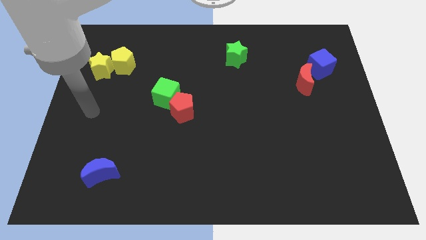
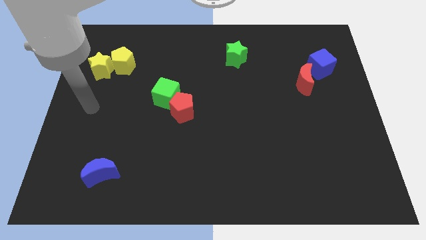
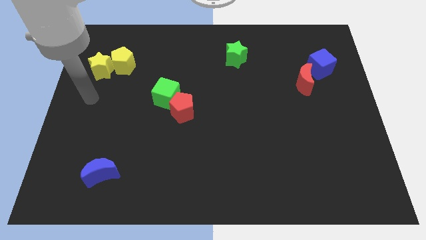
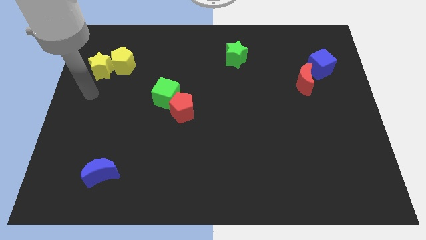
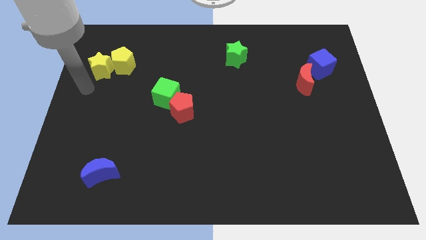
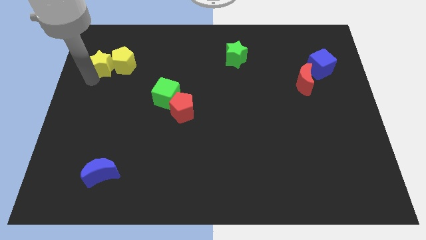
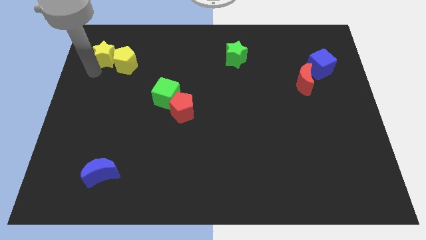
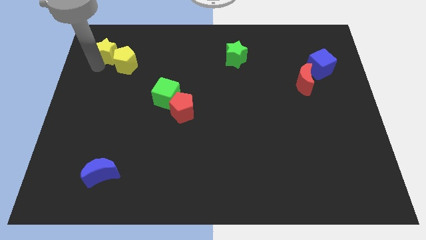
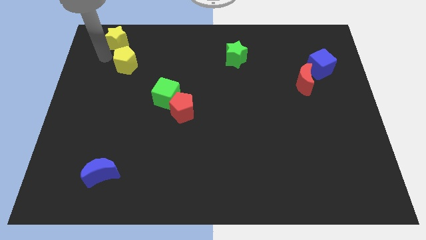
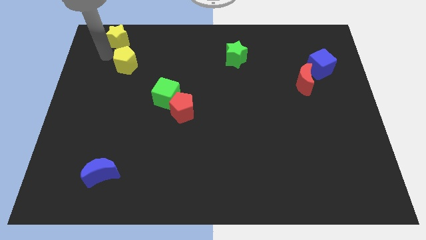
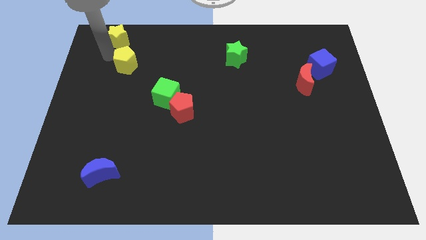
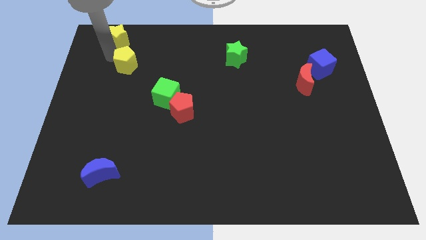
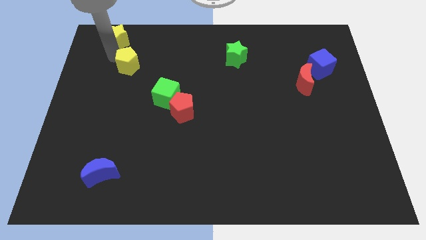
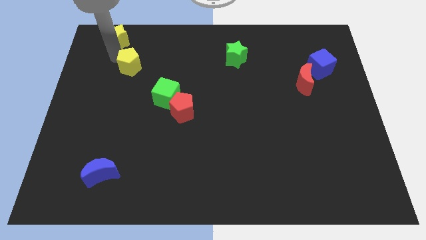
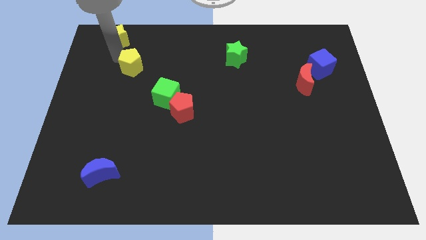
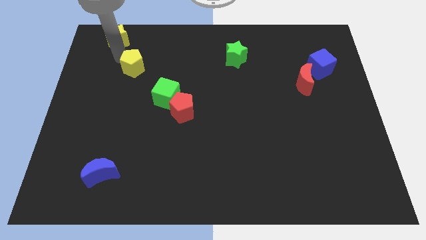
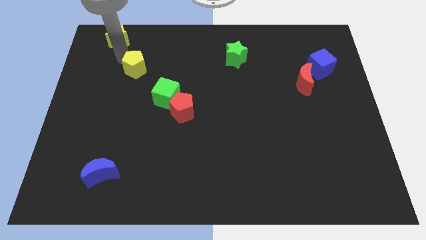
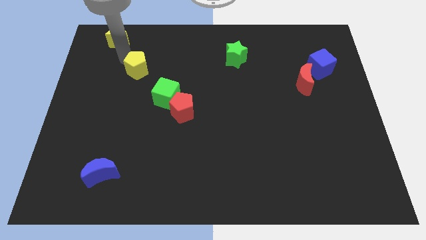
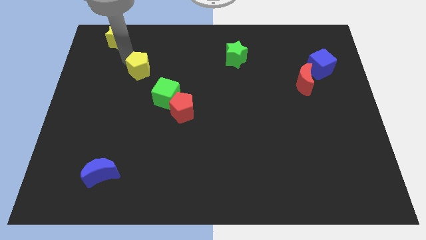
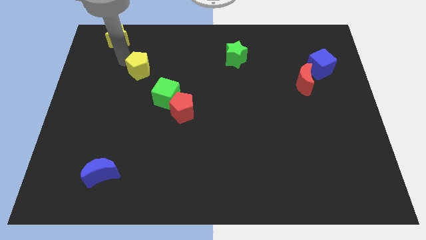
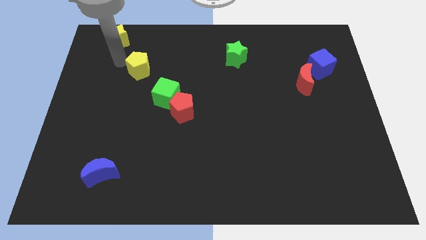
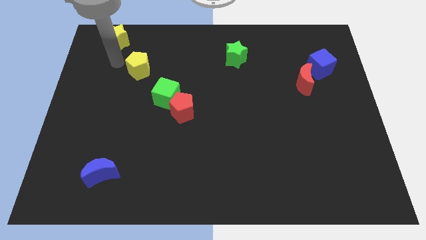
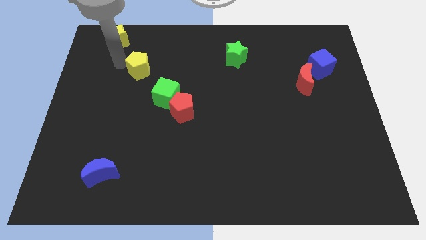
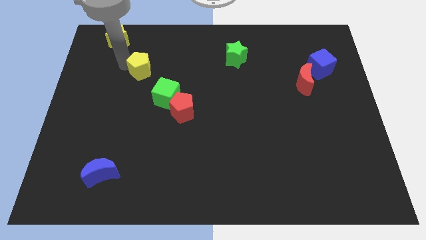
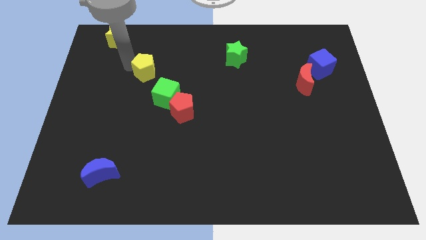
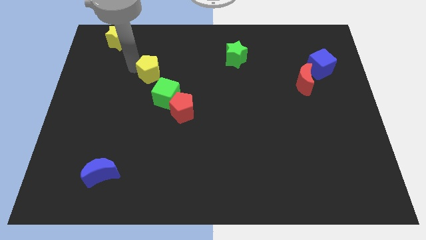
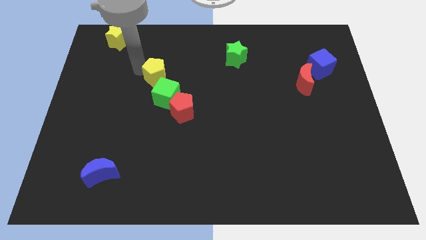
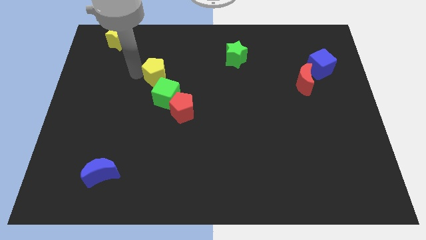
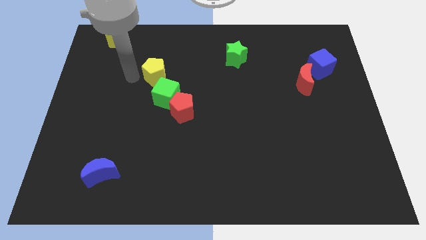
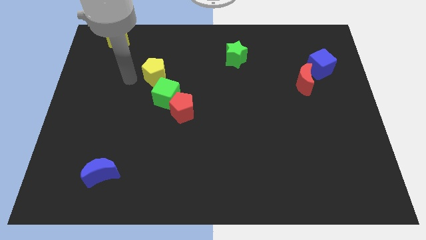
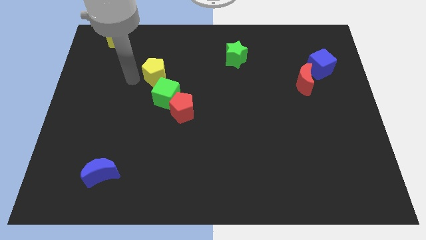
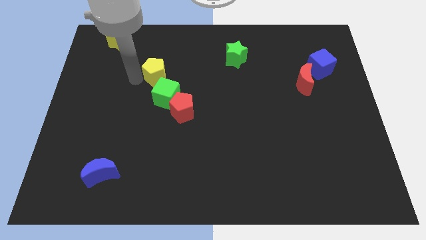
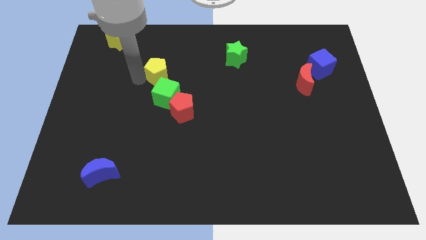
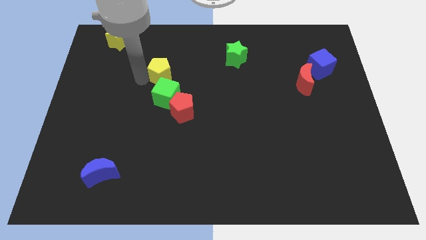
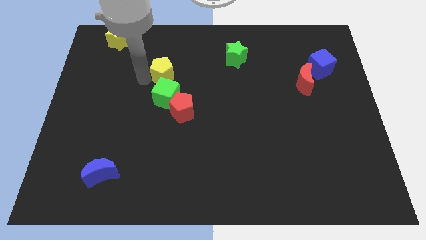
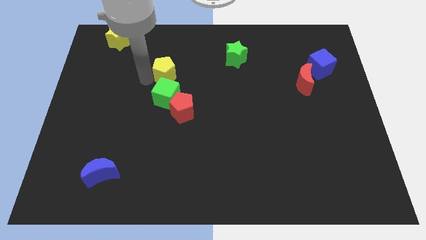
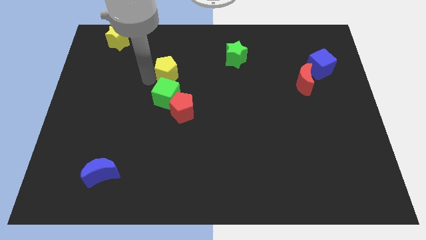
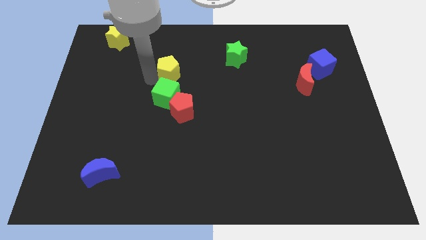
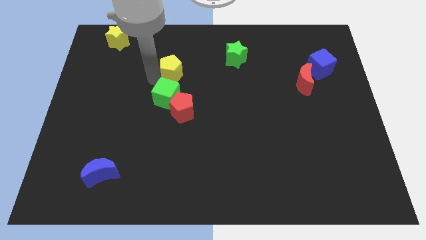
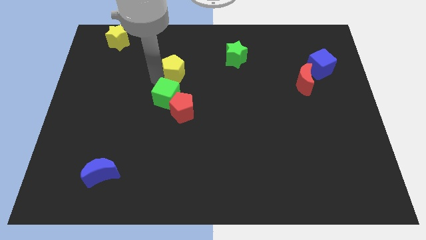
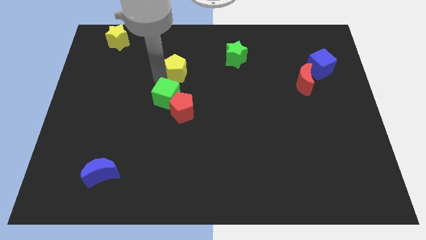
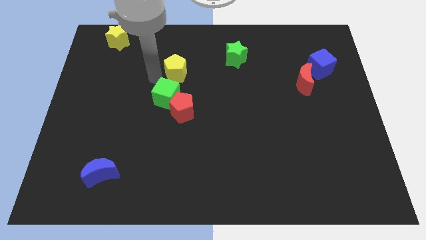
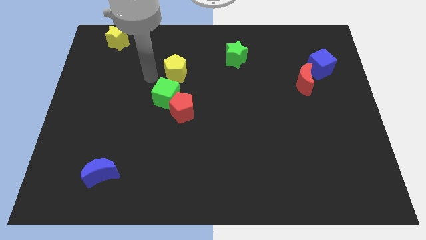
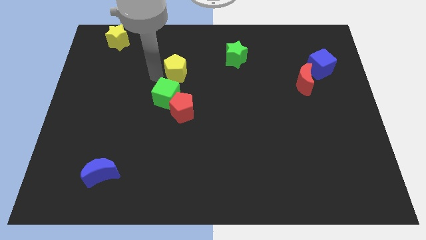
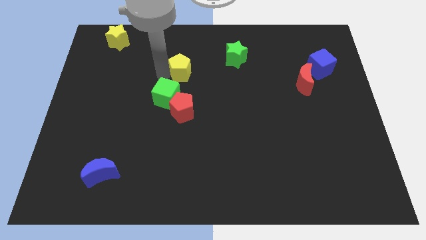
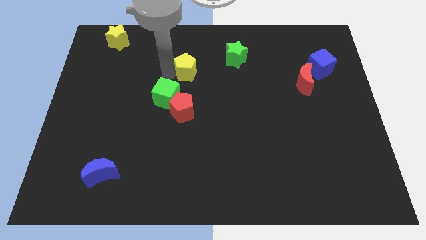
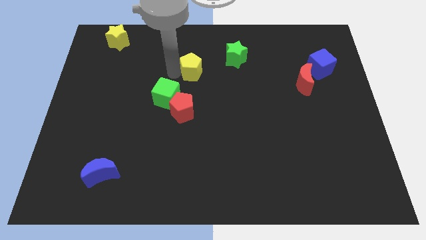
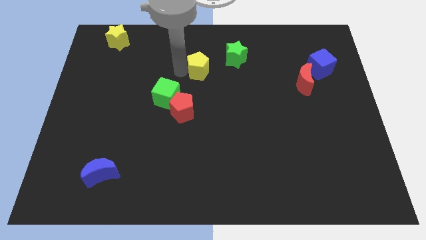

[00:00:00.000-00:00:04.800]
slide the yellow pentagon diagonally down and to the left of the green star

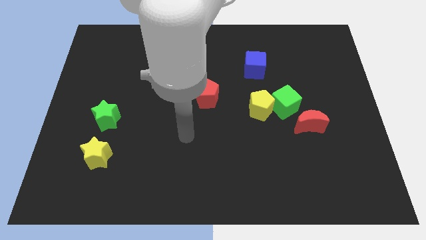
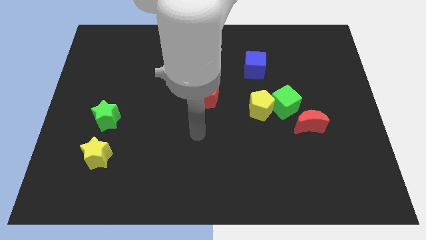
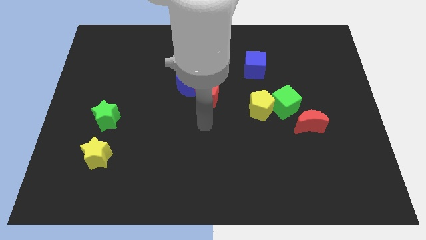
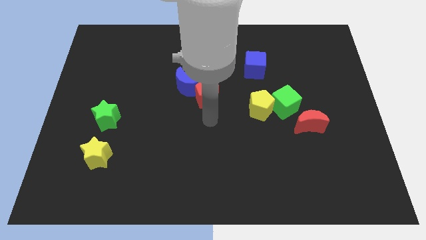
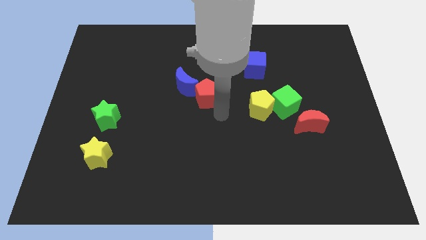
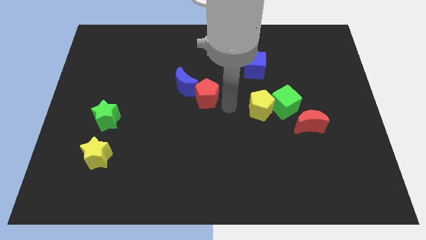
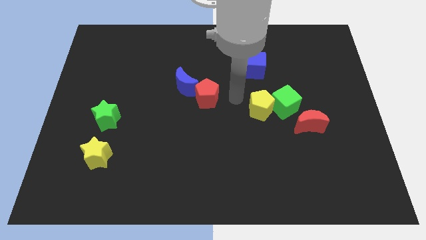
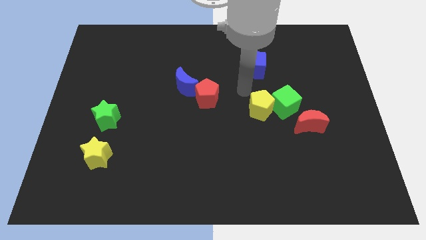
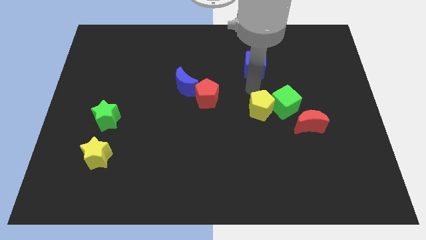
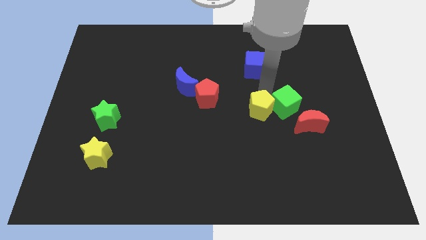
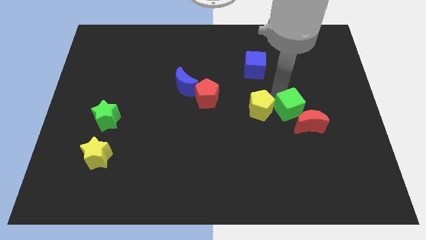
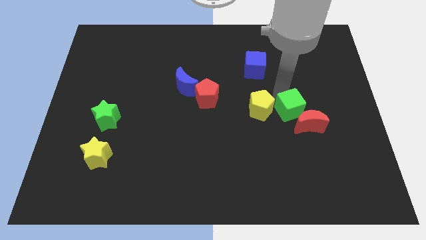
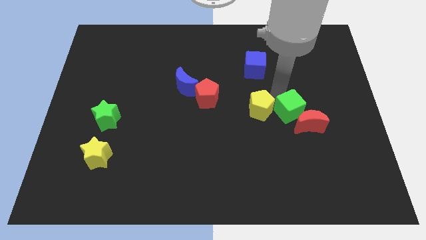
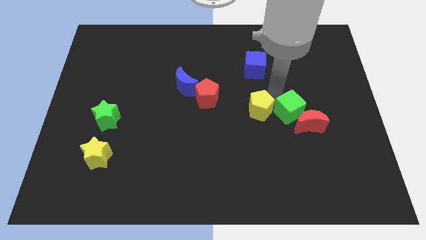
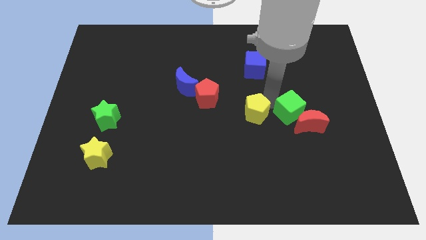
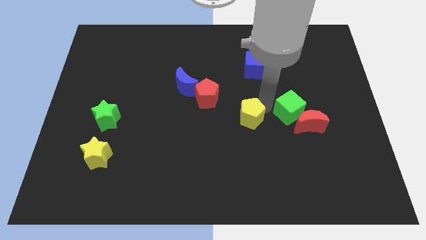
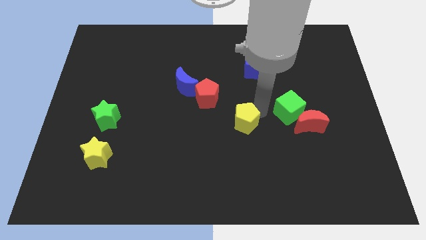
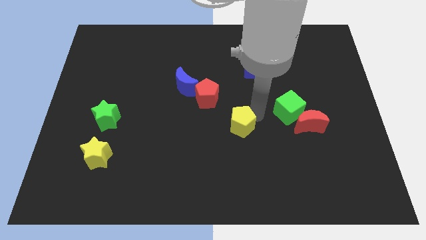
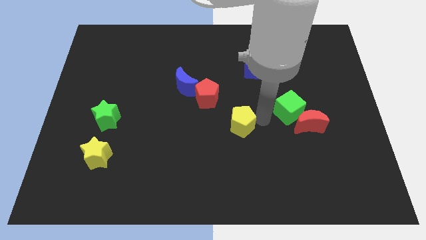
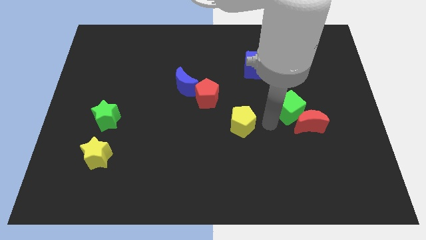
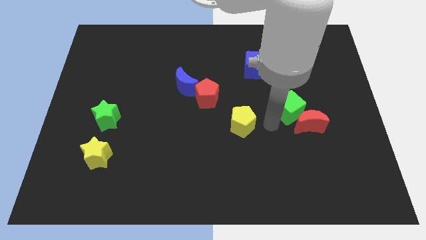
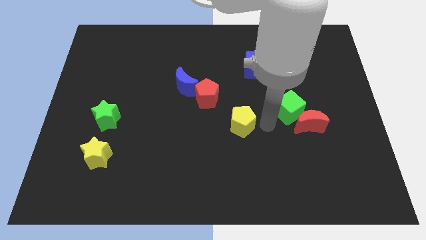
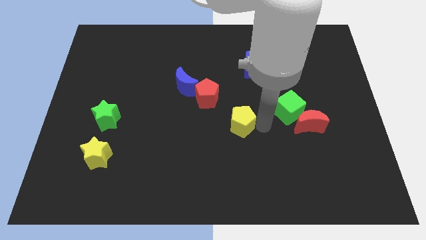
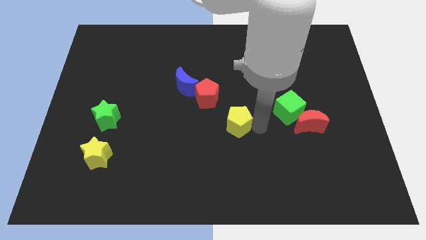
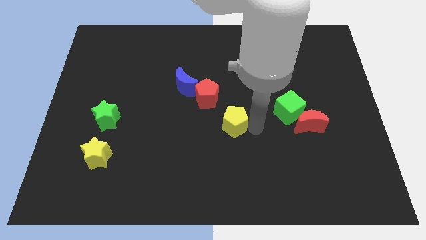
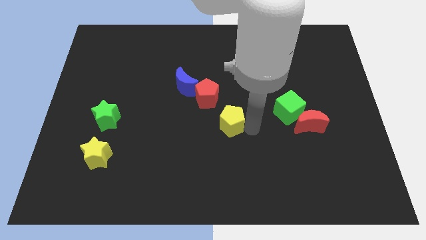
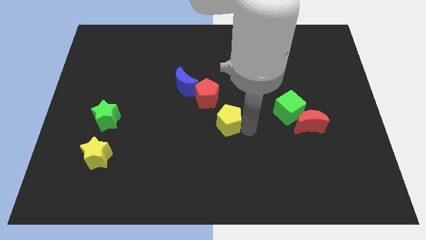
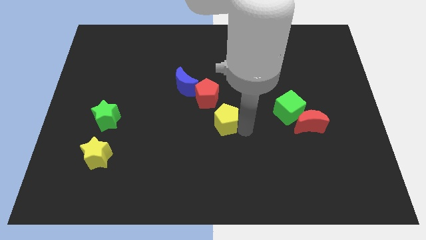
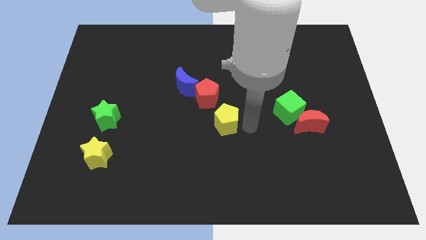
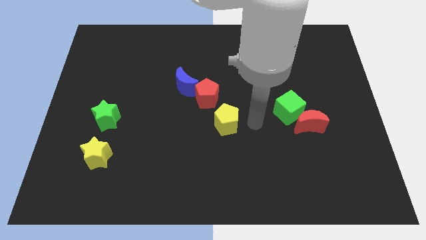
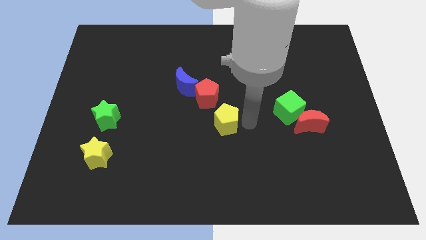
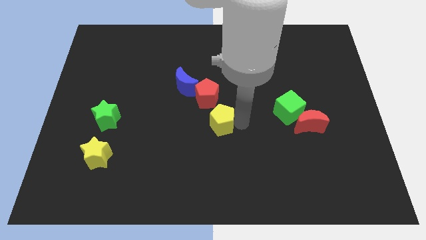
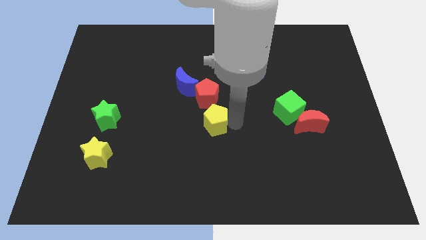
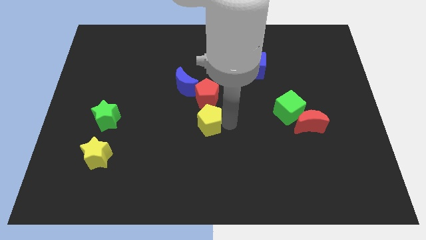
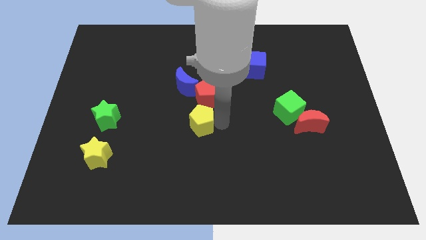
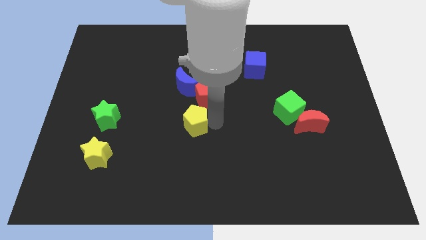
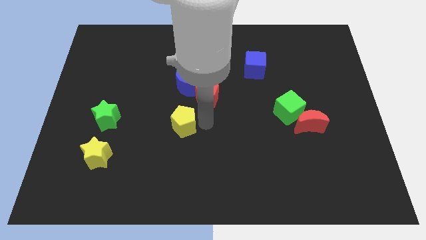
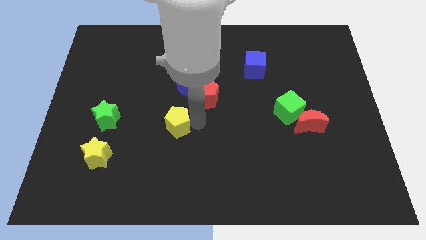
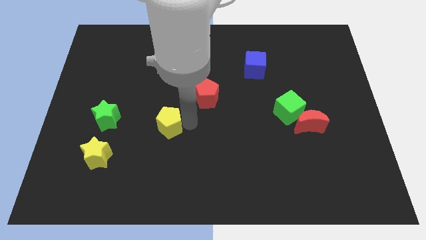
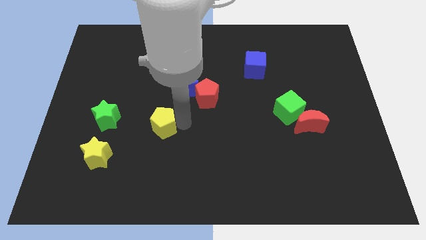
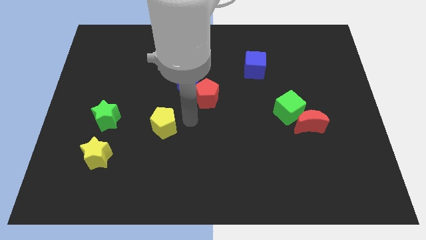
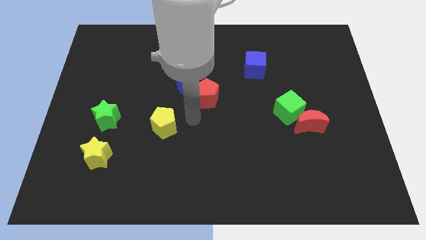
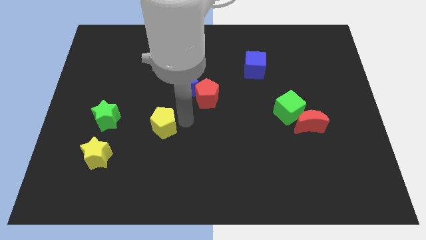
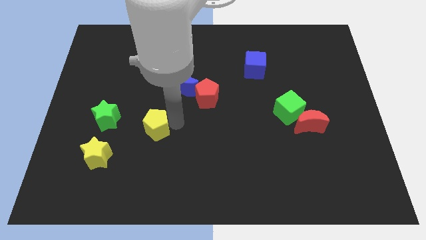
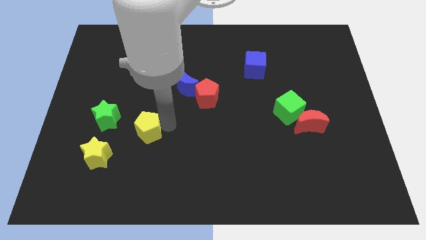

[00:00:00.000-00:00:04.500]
move the yellow pentagon diagonally up and to the right of the yellow star
